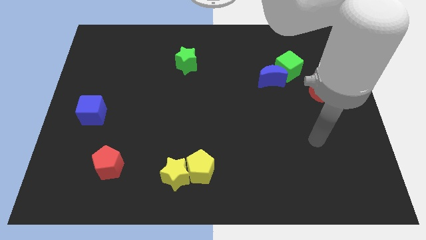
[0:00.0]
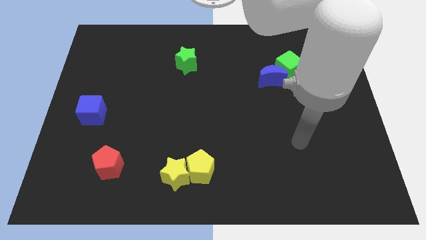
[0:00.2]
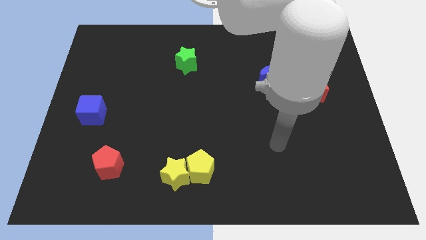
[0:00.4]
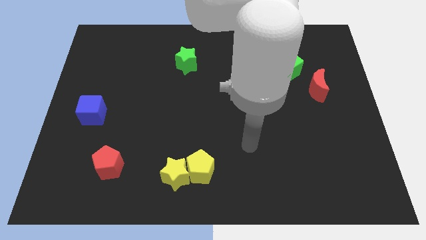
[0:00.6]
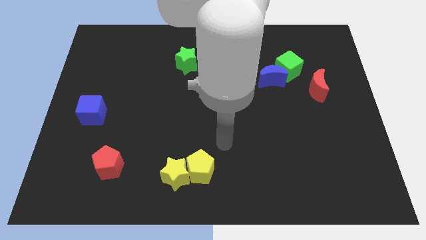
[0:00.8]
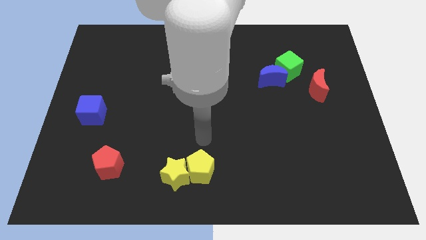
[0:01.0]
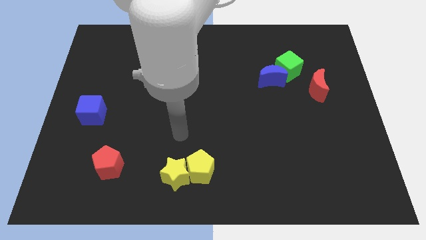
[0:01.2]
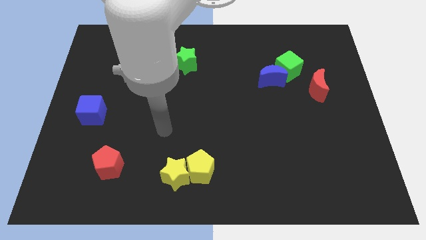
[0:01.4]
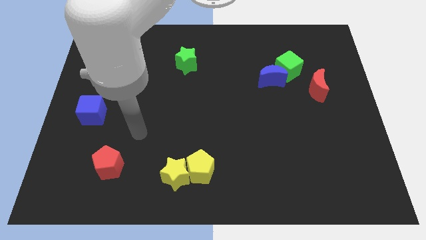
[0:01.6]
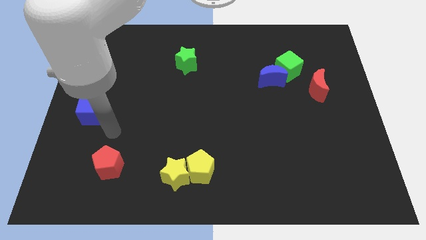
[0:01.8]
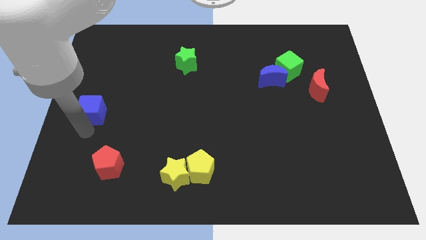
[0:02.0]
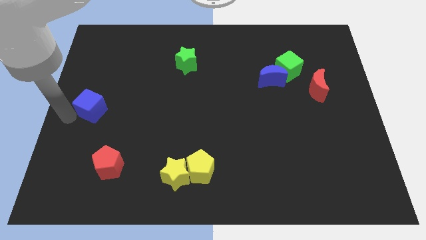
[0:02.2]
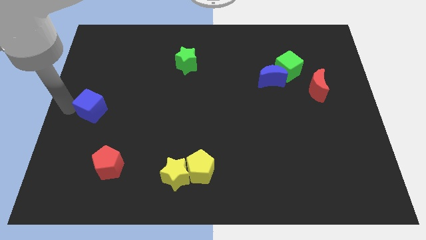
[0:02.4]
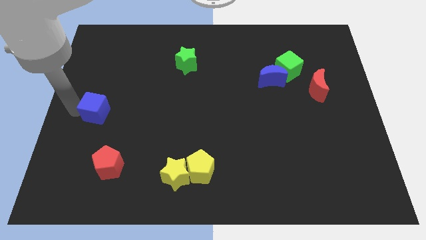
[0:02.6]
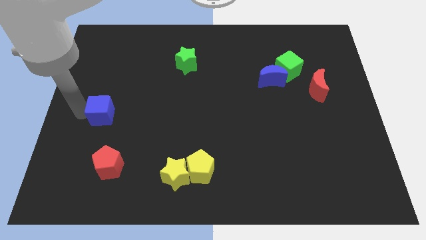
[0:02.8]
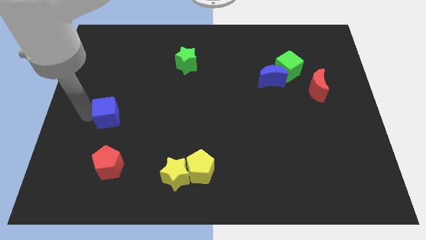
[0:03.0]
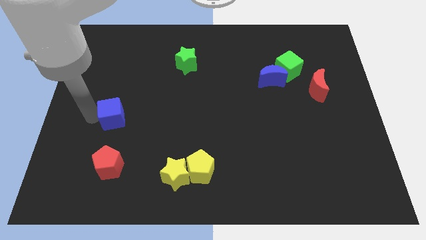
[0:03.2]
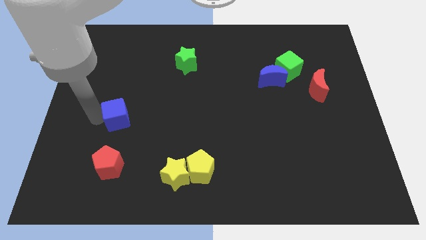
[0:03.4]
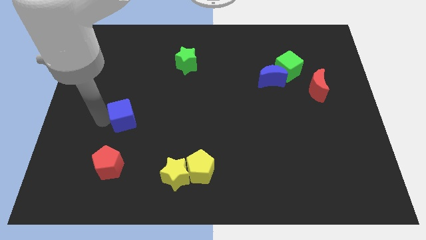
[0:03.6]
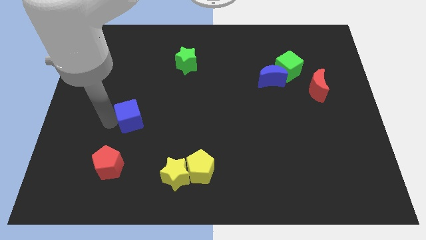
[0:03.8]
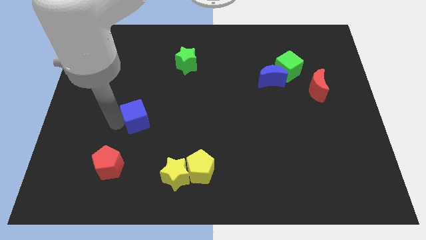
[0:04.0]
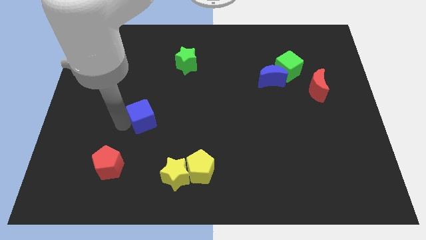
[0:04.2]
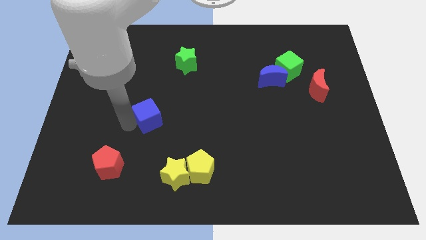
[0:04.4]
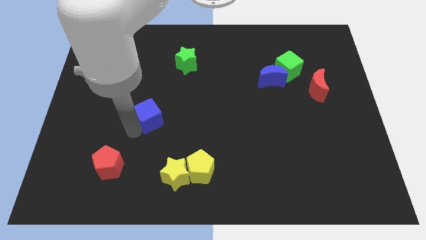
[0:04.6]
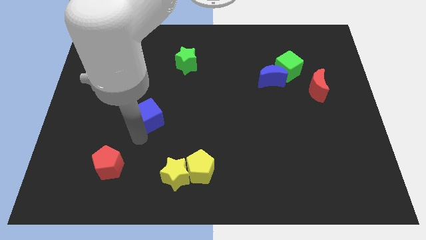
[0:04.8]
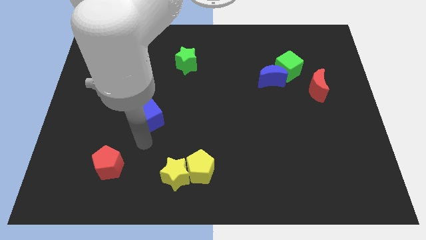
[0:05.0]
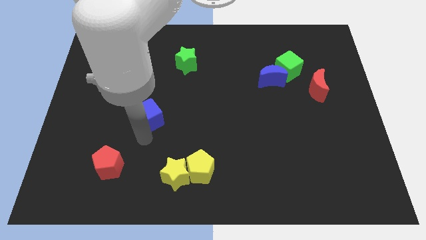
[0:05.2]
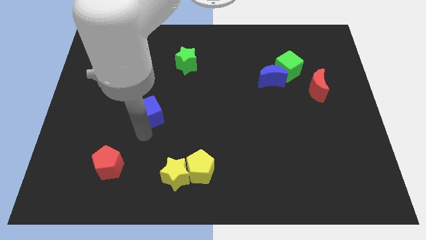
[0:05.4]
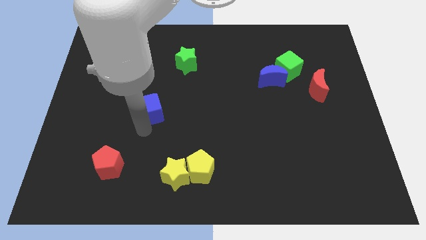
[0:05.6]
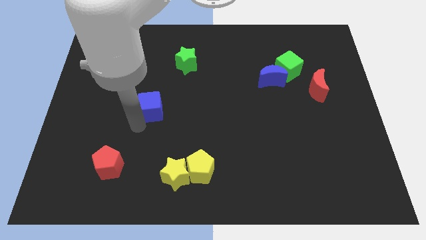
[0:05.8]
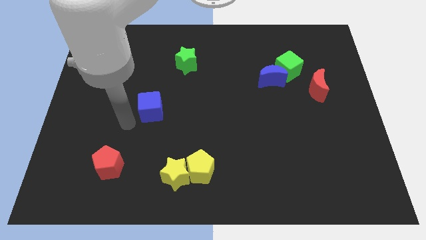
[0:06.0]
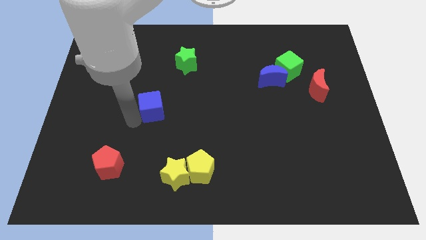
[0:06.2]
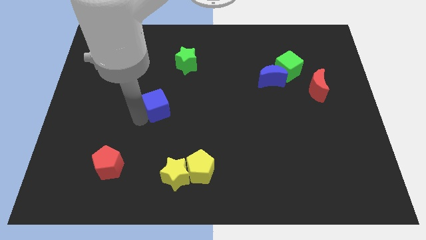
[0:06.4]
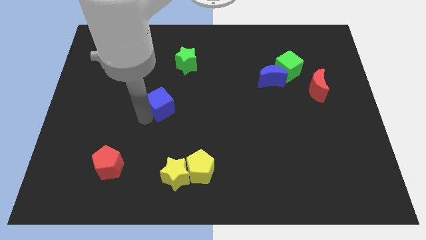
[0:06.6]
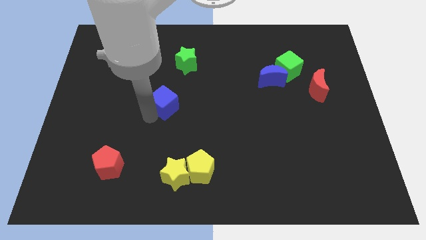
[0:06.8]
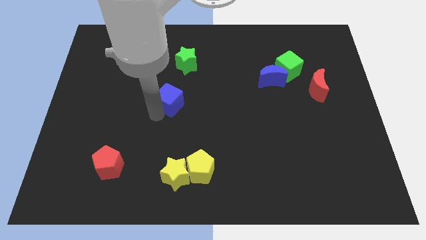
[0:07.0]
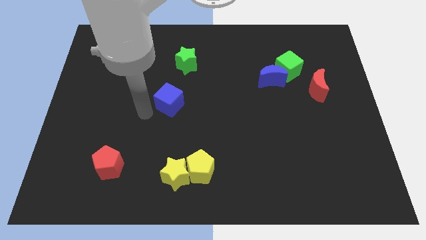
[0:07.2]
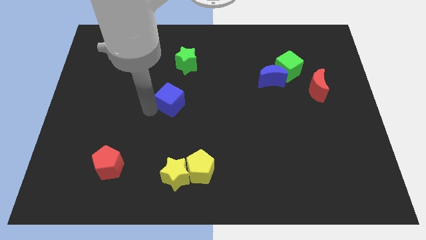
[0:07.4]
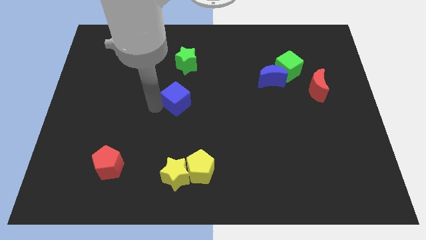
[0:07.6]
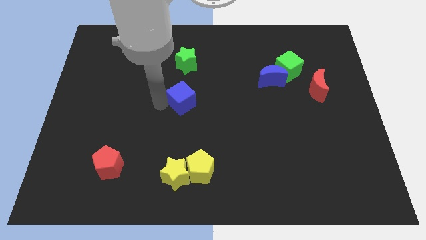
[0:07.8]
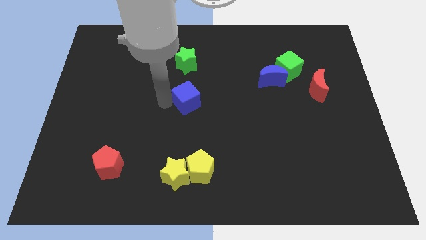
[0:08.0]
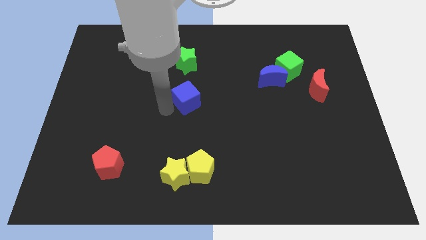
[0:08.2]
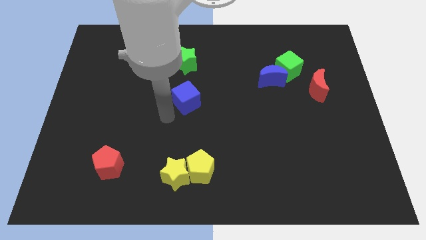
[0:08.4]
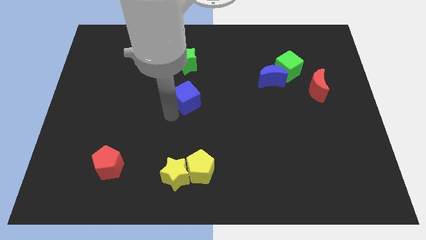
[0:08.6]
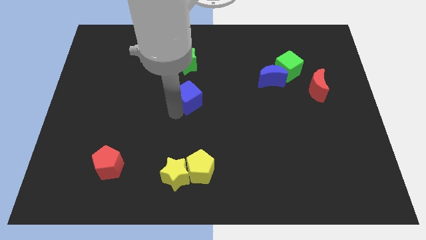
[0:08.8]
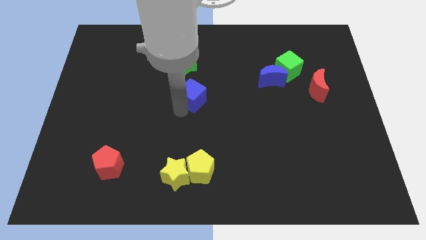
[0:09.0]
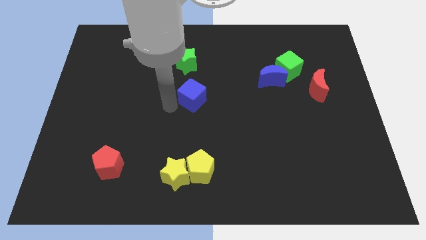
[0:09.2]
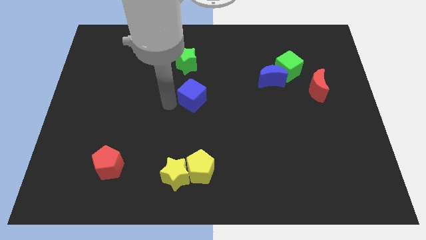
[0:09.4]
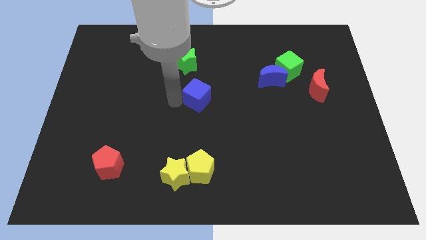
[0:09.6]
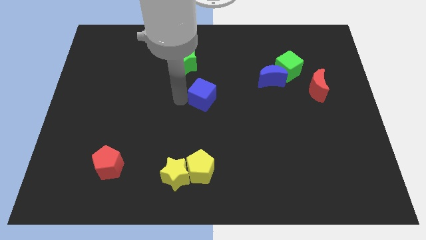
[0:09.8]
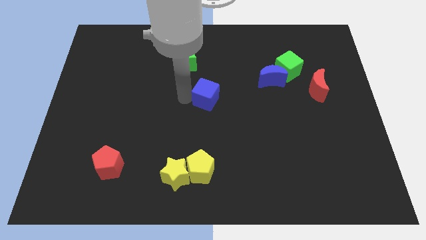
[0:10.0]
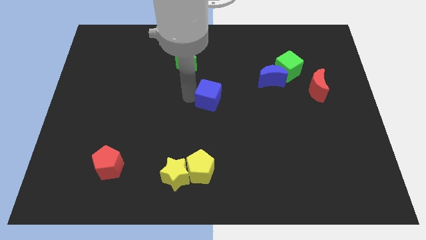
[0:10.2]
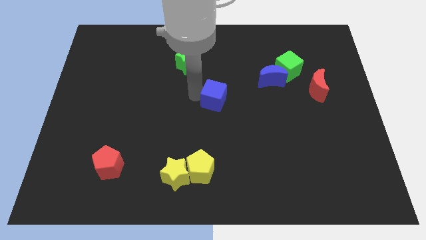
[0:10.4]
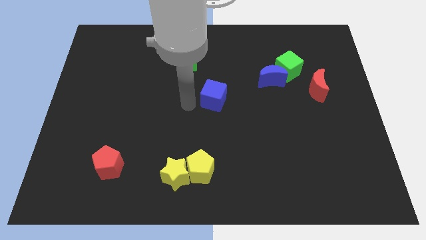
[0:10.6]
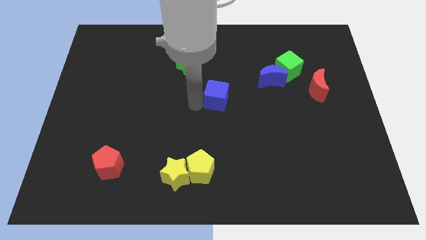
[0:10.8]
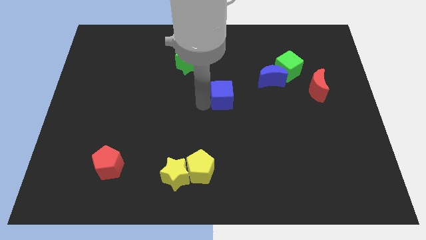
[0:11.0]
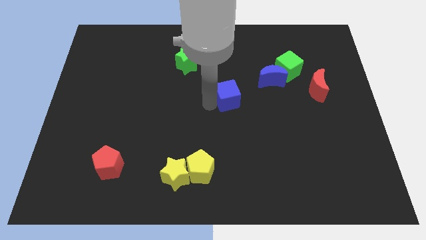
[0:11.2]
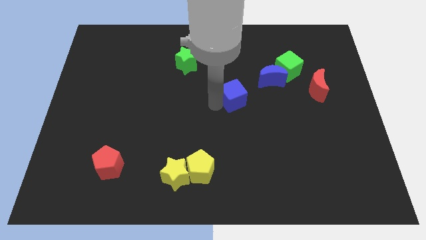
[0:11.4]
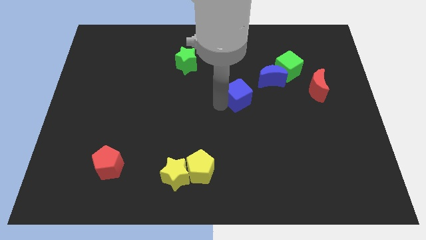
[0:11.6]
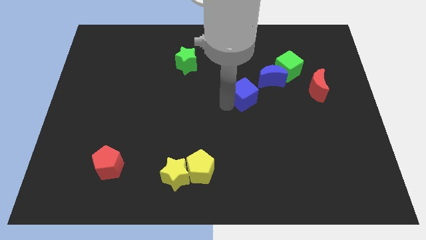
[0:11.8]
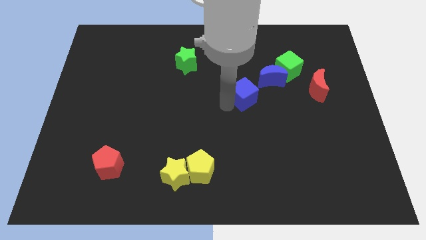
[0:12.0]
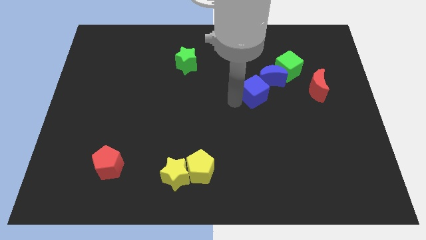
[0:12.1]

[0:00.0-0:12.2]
move the blue cube diagonally down and to the left of the green cube

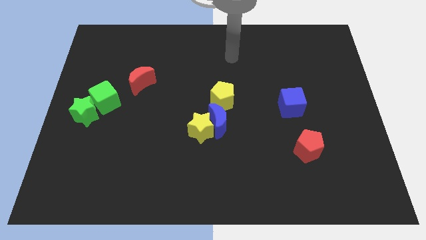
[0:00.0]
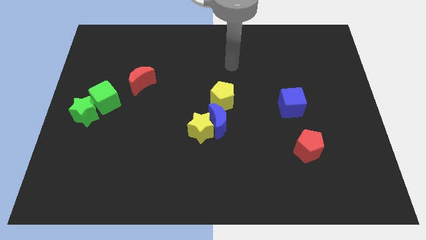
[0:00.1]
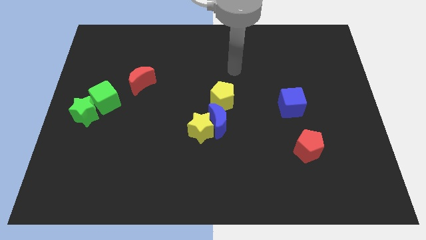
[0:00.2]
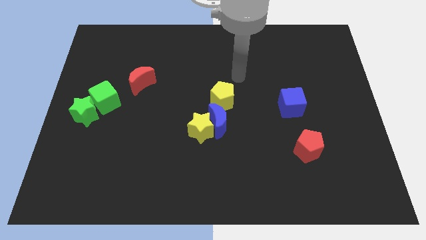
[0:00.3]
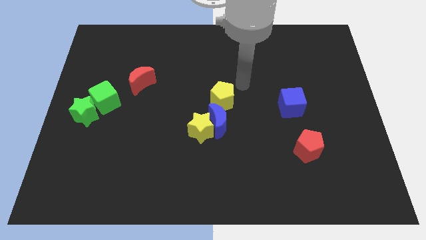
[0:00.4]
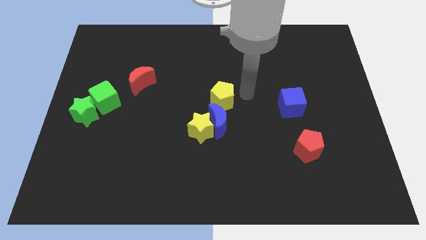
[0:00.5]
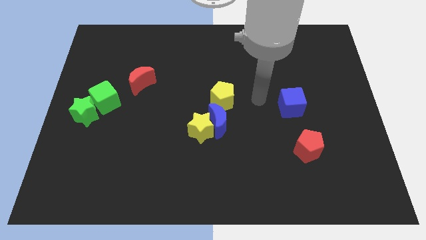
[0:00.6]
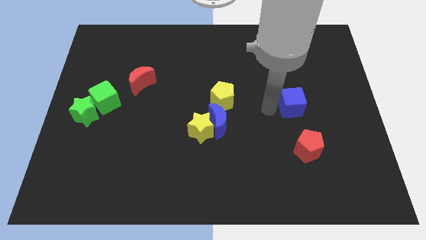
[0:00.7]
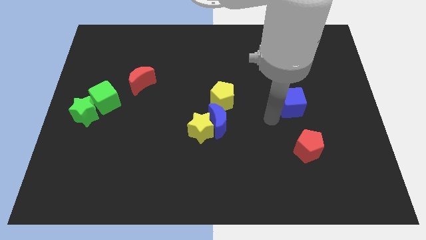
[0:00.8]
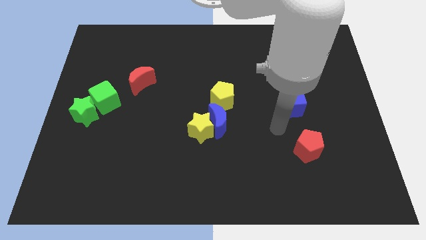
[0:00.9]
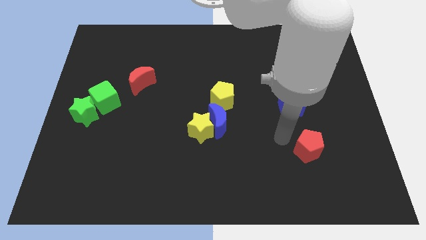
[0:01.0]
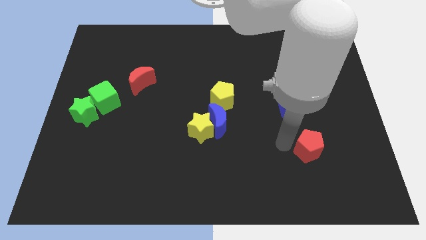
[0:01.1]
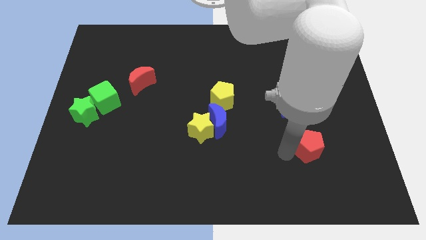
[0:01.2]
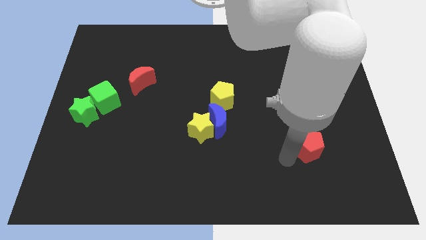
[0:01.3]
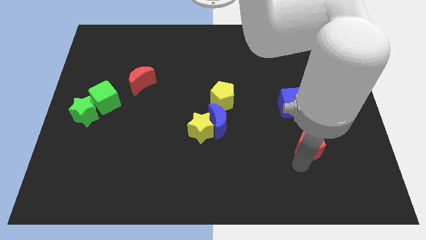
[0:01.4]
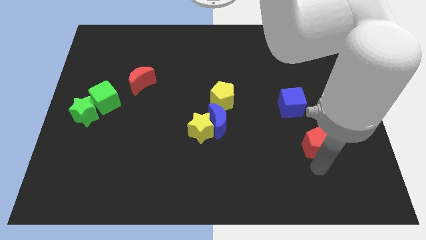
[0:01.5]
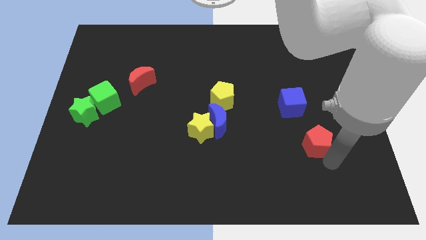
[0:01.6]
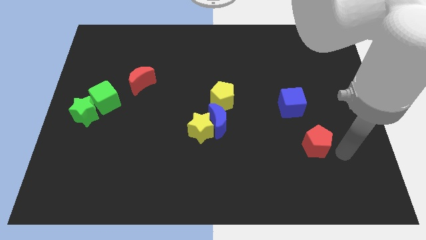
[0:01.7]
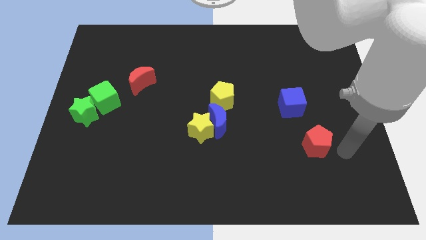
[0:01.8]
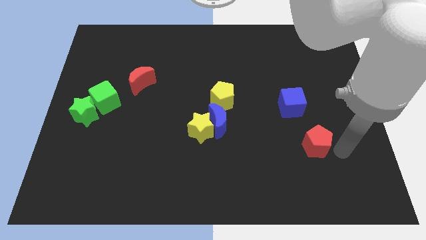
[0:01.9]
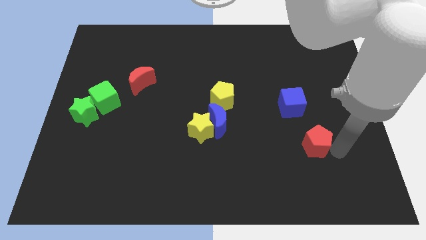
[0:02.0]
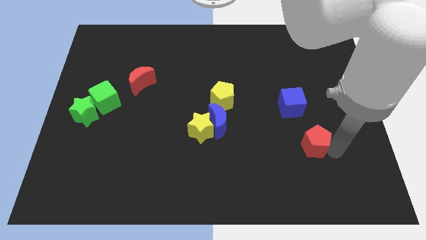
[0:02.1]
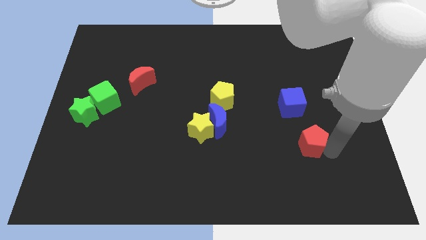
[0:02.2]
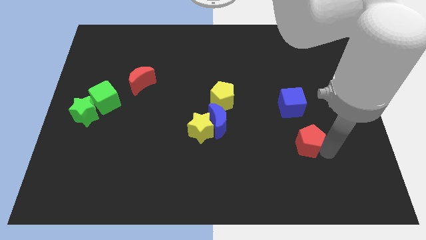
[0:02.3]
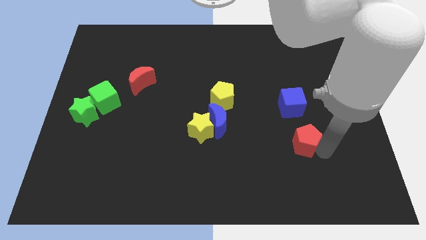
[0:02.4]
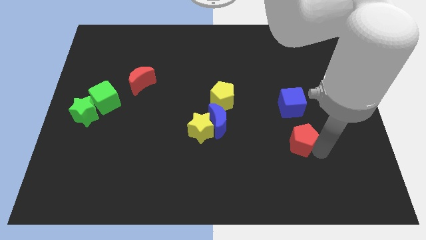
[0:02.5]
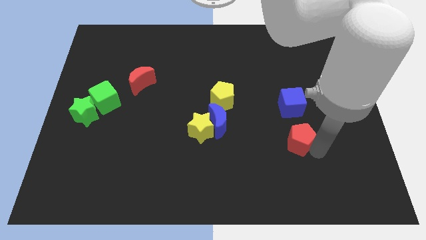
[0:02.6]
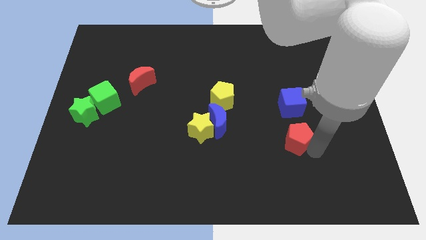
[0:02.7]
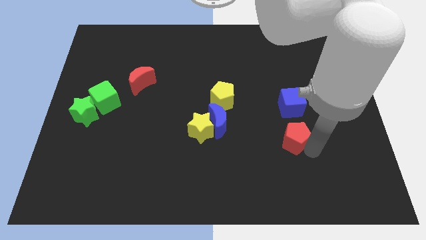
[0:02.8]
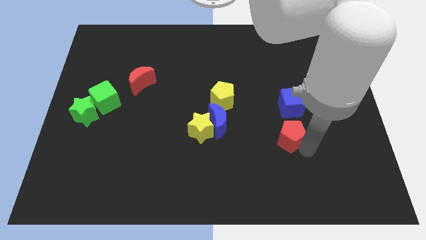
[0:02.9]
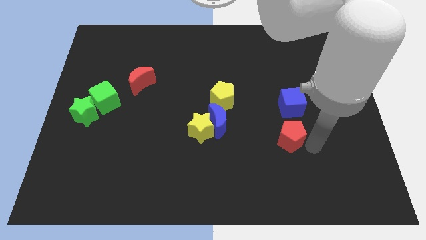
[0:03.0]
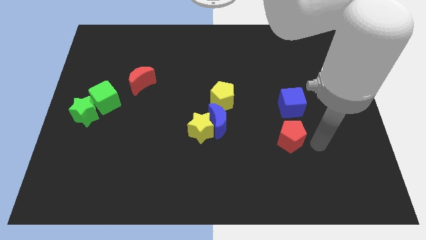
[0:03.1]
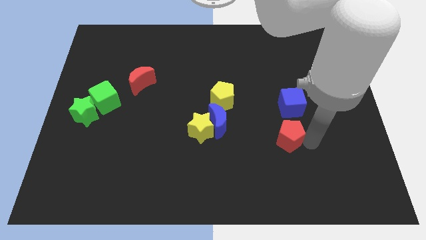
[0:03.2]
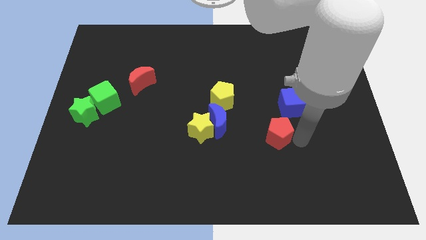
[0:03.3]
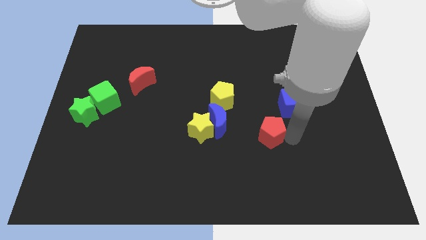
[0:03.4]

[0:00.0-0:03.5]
push the red pentagon right of the yellow star
